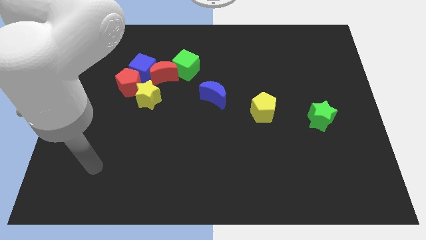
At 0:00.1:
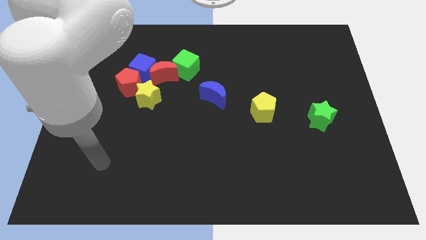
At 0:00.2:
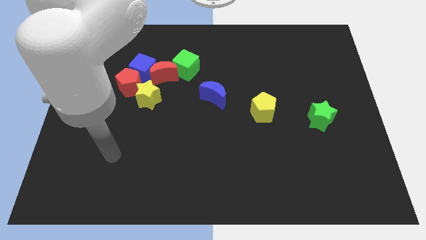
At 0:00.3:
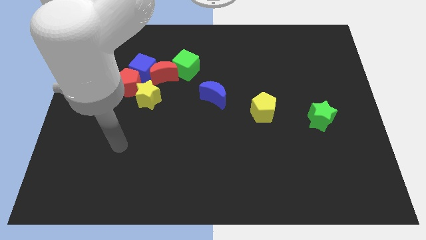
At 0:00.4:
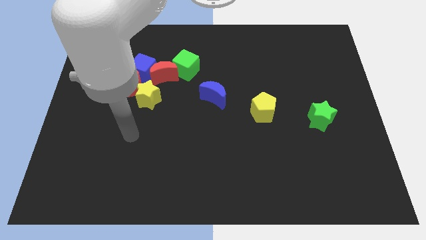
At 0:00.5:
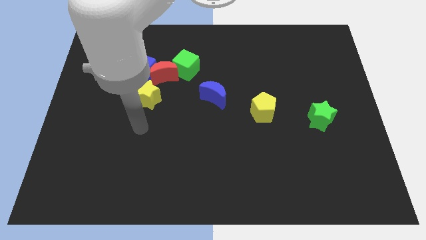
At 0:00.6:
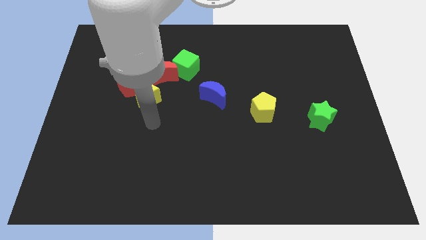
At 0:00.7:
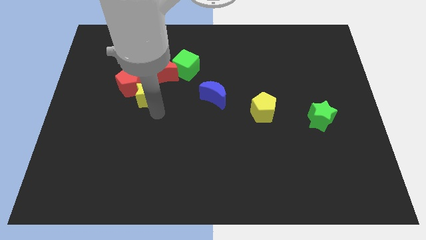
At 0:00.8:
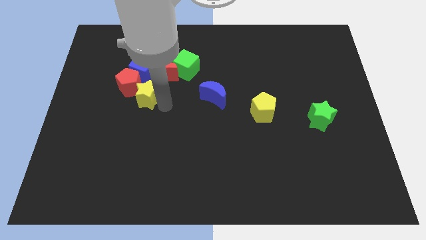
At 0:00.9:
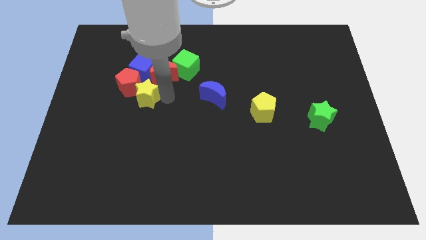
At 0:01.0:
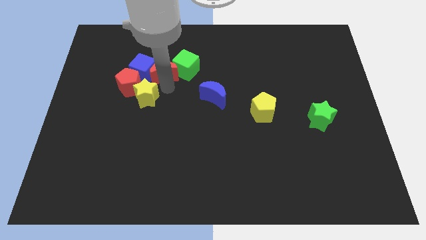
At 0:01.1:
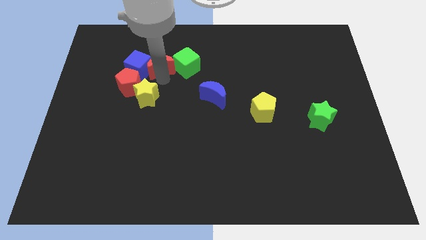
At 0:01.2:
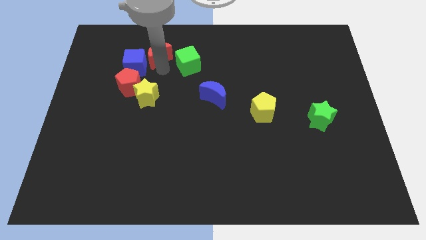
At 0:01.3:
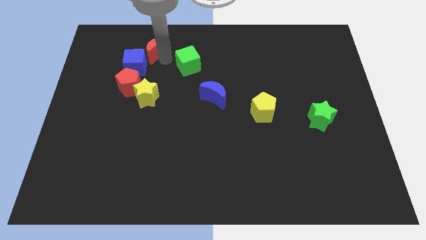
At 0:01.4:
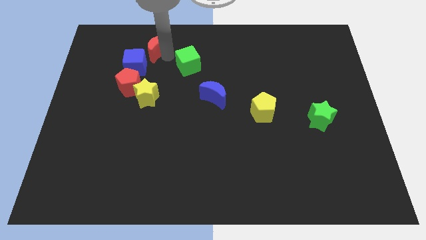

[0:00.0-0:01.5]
separate the green cube from the red moon

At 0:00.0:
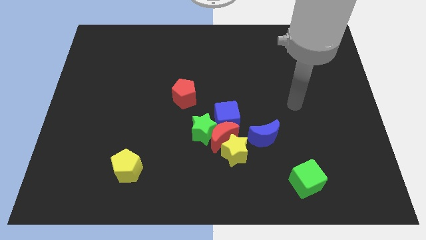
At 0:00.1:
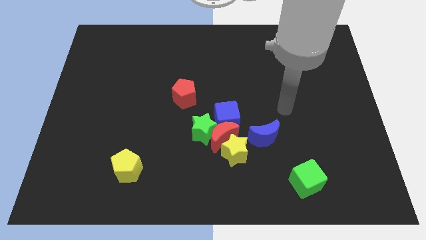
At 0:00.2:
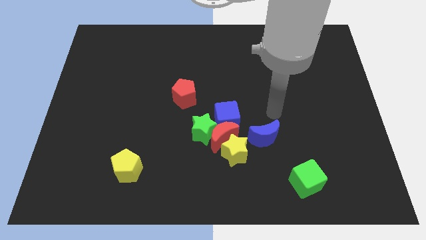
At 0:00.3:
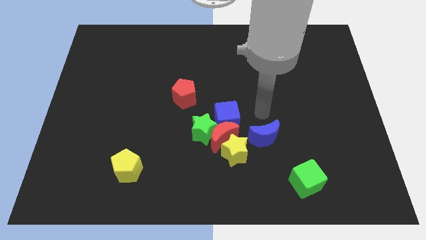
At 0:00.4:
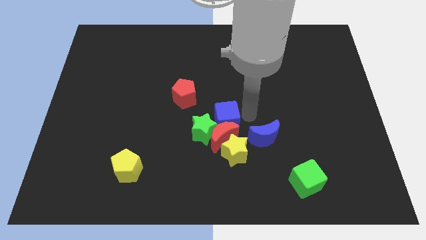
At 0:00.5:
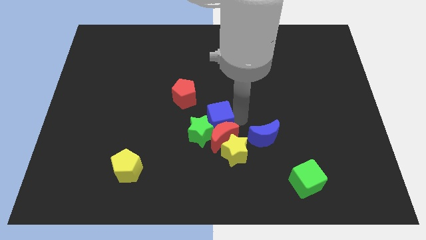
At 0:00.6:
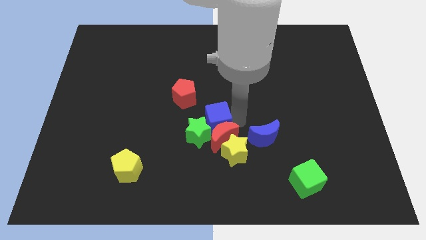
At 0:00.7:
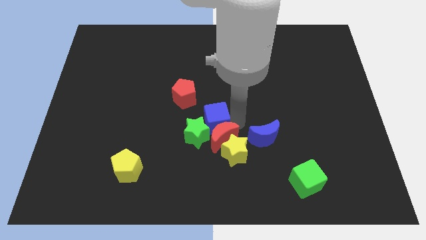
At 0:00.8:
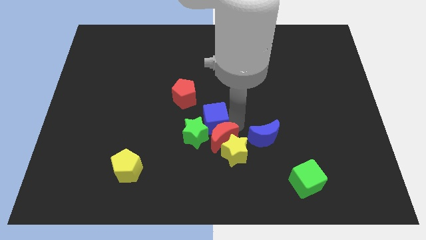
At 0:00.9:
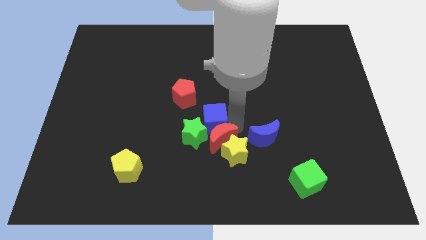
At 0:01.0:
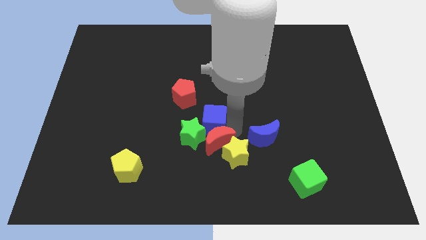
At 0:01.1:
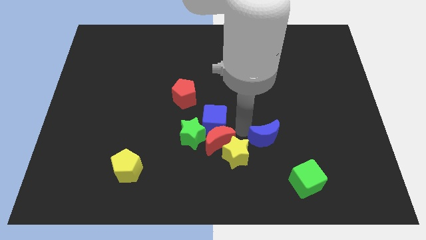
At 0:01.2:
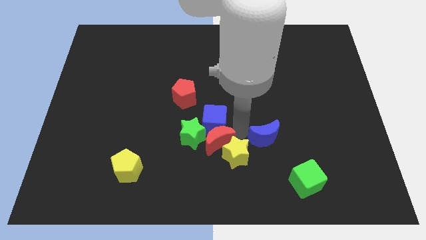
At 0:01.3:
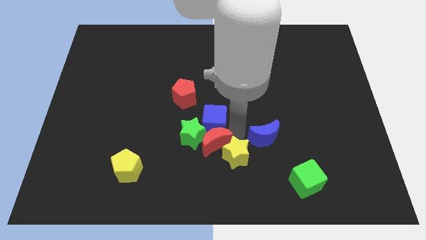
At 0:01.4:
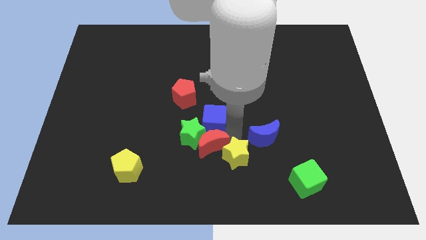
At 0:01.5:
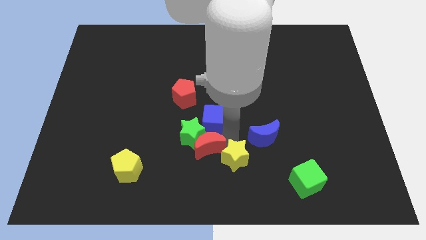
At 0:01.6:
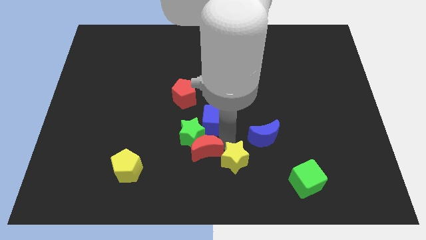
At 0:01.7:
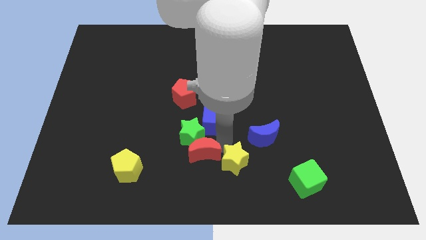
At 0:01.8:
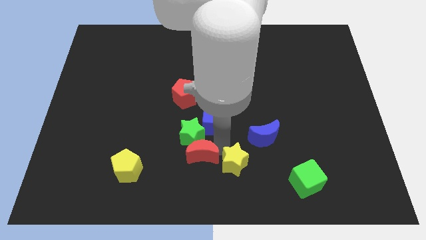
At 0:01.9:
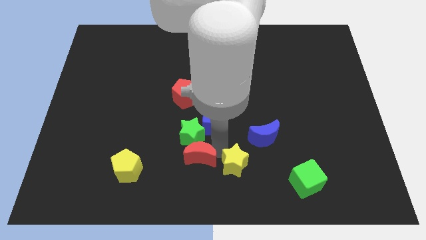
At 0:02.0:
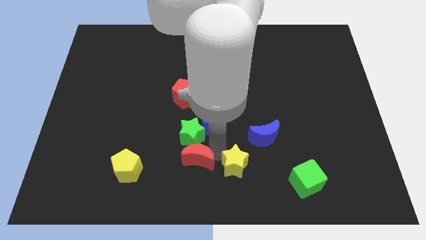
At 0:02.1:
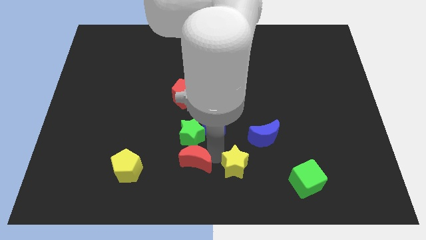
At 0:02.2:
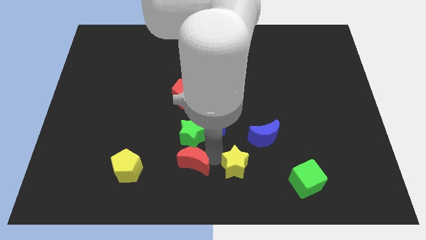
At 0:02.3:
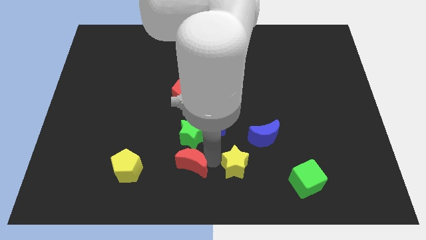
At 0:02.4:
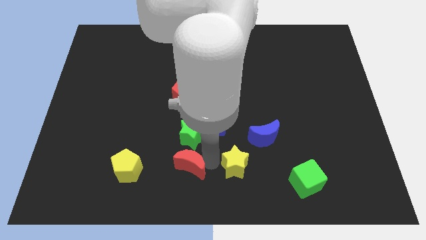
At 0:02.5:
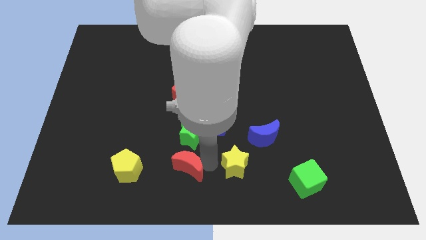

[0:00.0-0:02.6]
pull the red moon apart from the group of blocks

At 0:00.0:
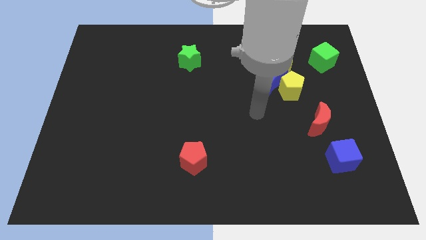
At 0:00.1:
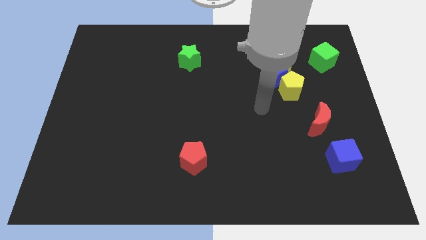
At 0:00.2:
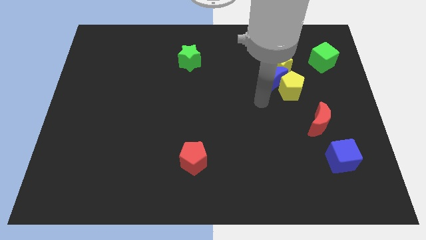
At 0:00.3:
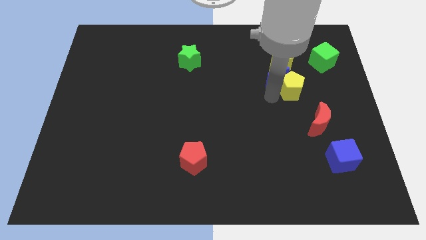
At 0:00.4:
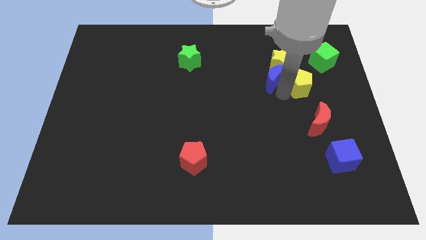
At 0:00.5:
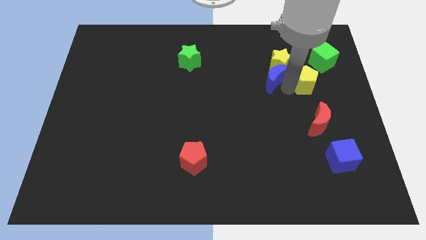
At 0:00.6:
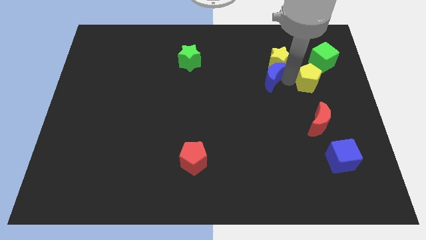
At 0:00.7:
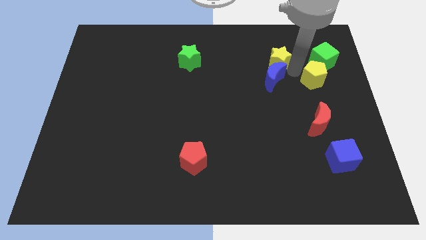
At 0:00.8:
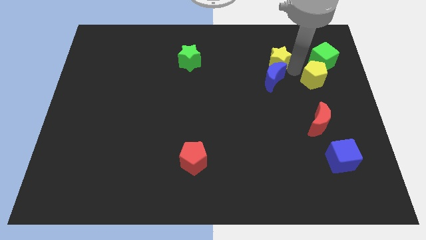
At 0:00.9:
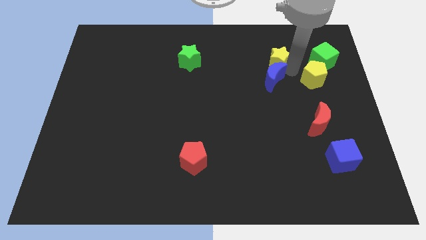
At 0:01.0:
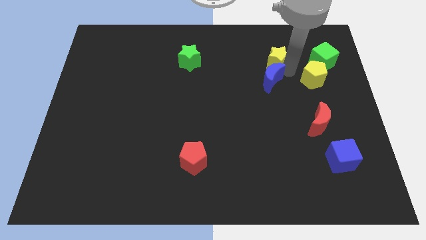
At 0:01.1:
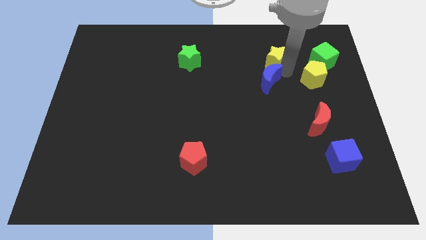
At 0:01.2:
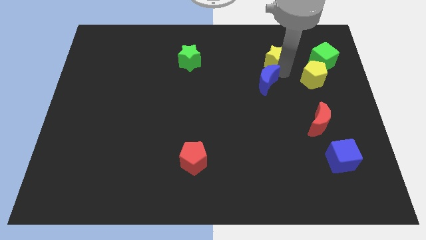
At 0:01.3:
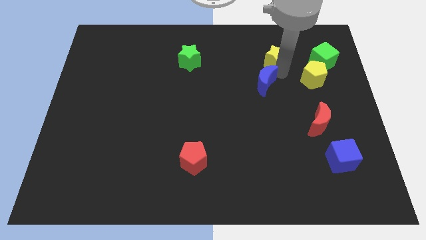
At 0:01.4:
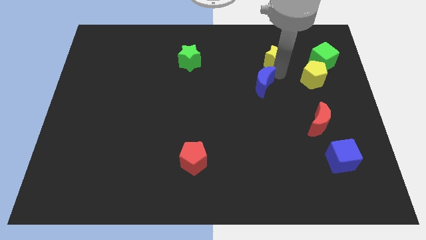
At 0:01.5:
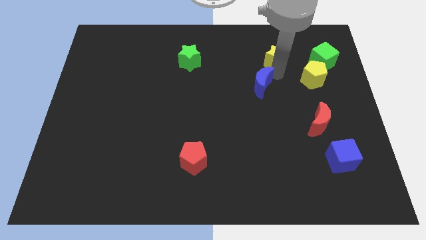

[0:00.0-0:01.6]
separate the blue moon from the yellow pentagon and yellow star

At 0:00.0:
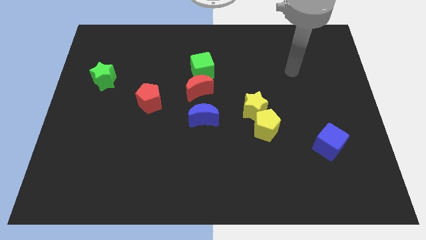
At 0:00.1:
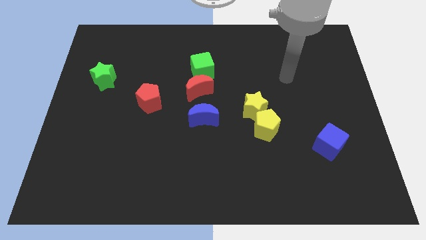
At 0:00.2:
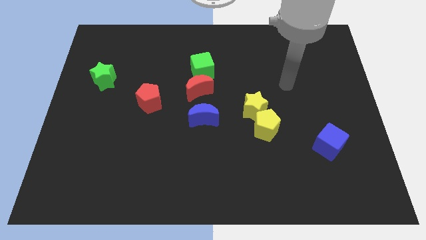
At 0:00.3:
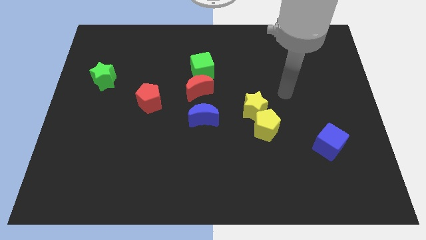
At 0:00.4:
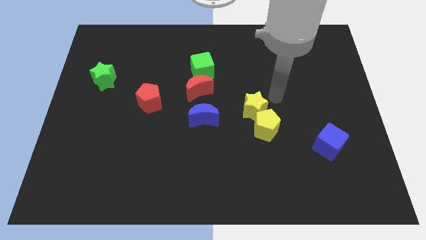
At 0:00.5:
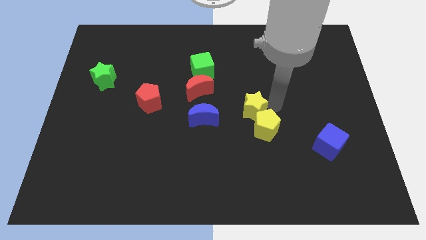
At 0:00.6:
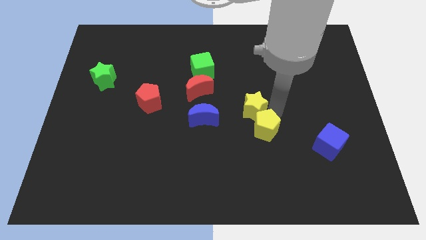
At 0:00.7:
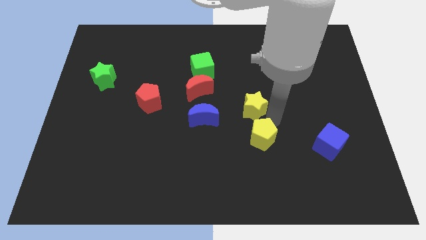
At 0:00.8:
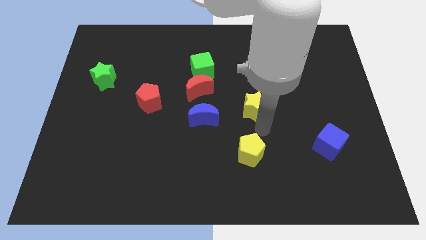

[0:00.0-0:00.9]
separate the yellow star from the yellow pentagon

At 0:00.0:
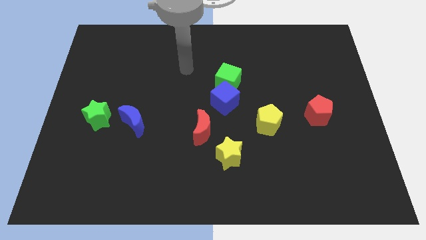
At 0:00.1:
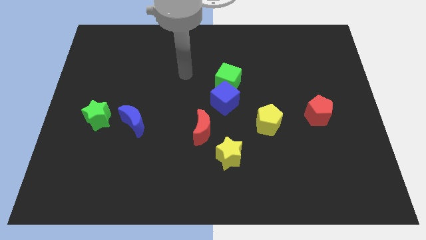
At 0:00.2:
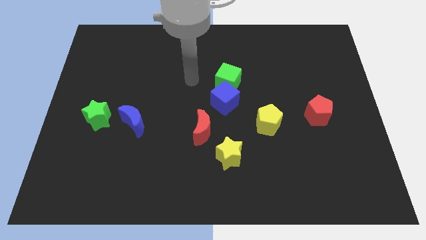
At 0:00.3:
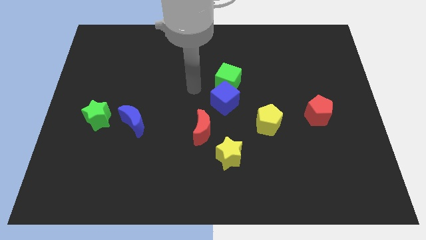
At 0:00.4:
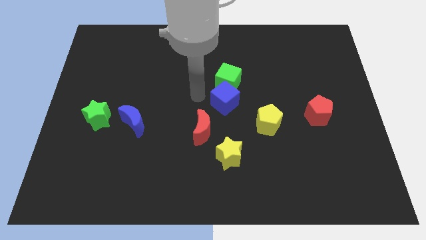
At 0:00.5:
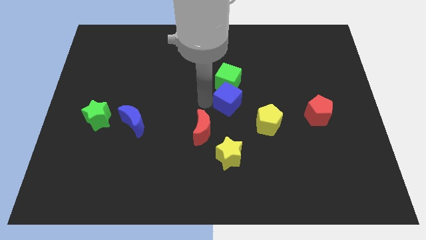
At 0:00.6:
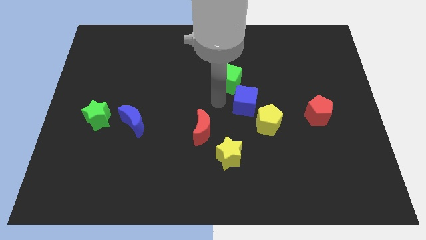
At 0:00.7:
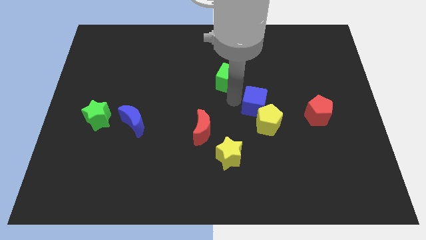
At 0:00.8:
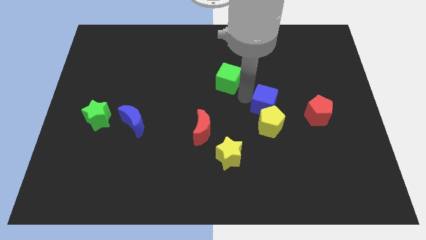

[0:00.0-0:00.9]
separate the green cube from the blue cube

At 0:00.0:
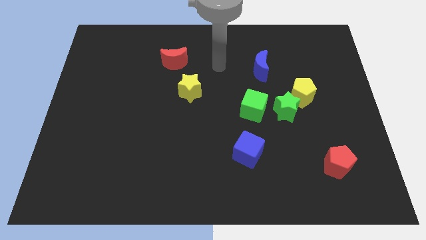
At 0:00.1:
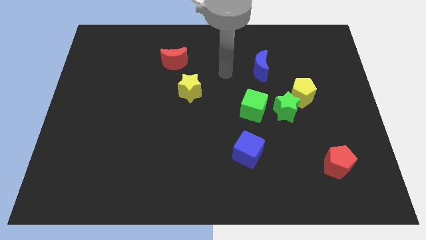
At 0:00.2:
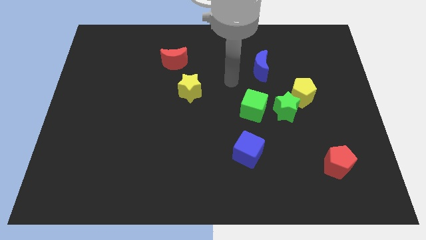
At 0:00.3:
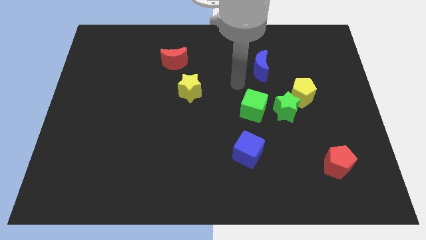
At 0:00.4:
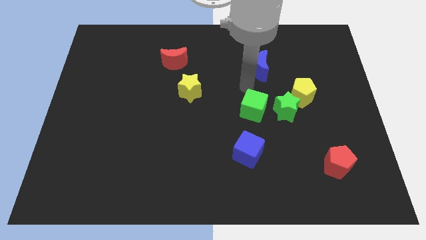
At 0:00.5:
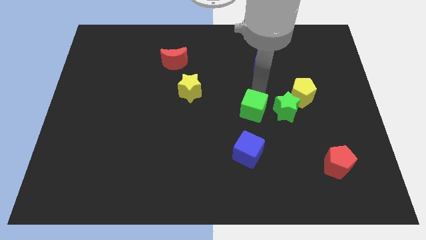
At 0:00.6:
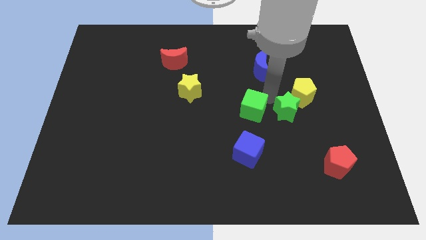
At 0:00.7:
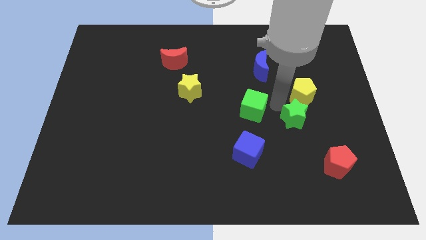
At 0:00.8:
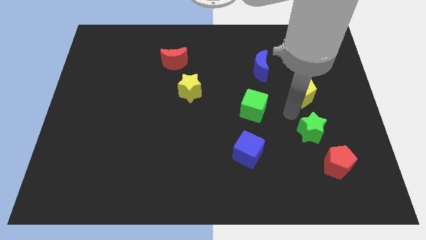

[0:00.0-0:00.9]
move the yellow pentagon away from the green star

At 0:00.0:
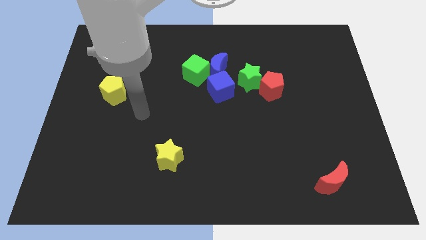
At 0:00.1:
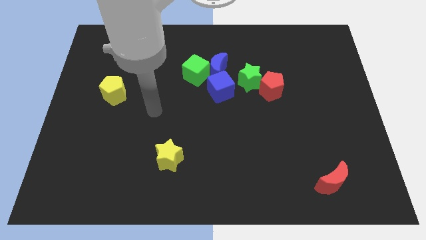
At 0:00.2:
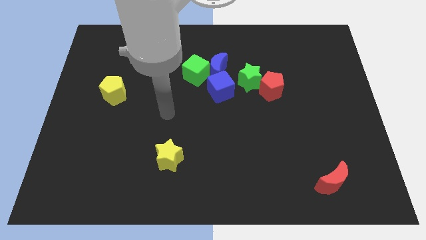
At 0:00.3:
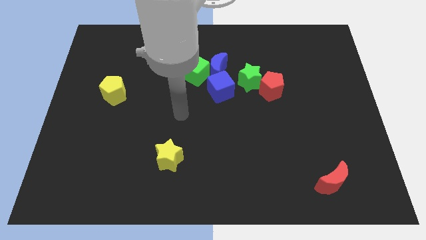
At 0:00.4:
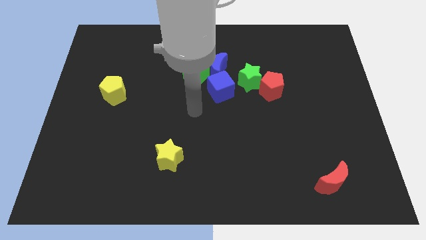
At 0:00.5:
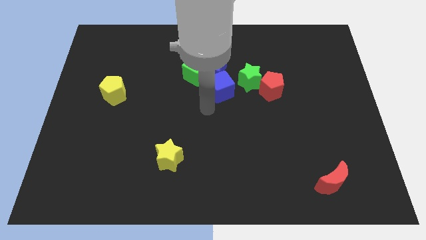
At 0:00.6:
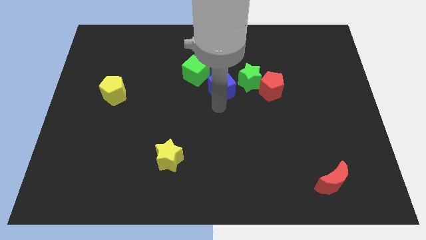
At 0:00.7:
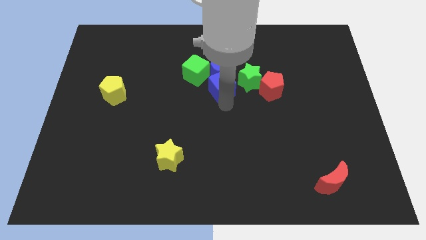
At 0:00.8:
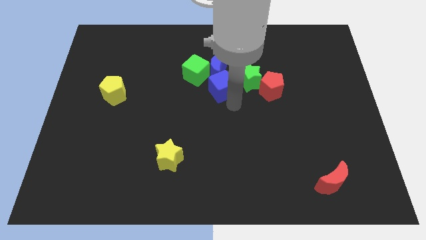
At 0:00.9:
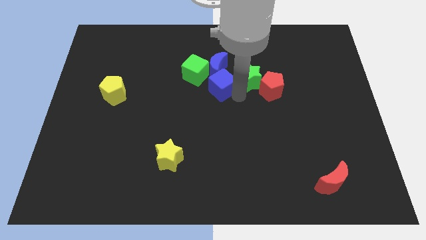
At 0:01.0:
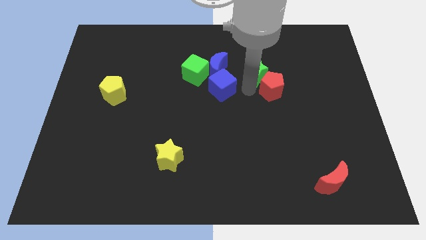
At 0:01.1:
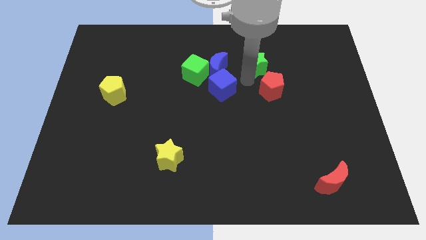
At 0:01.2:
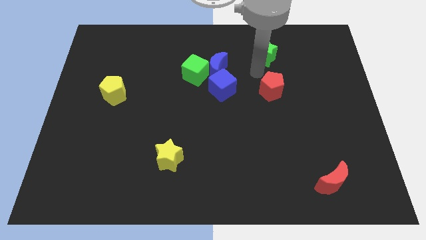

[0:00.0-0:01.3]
separate the red pentagon from the green star
